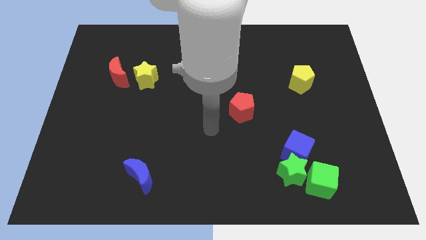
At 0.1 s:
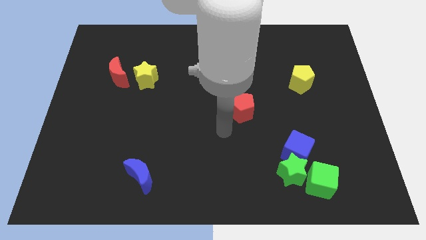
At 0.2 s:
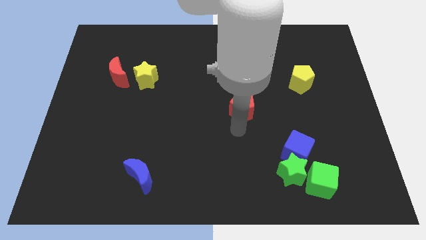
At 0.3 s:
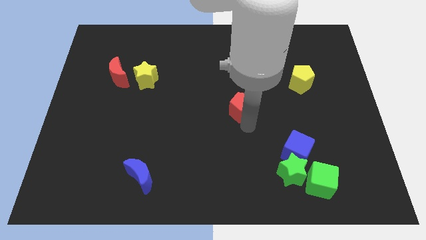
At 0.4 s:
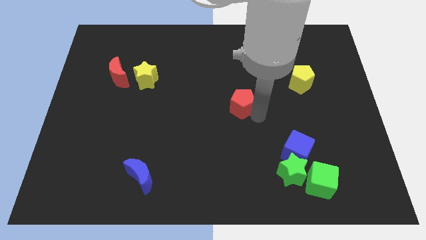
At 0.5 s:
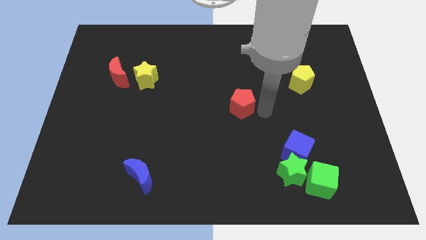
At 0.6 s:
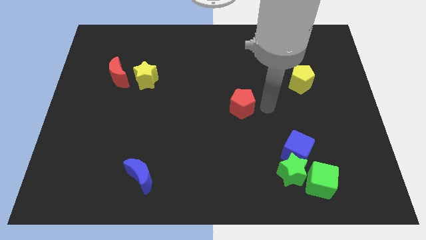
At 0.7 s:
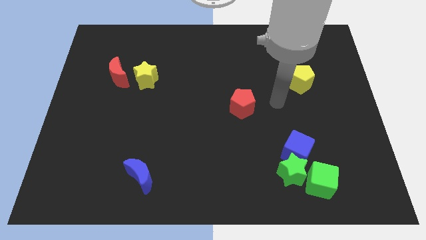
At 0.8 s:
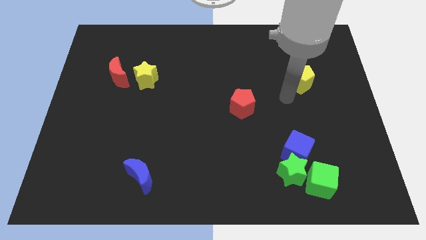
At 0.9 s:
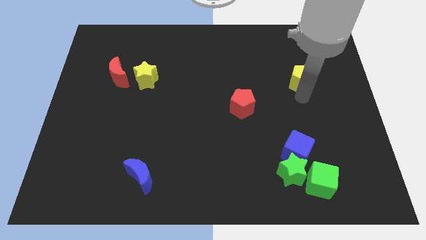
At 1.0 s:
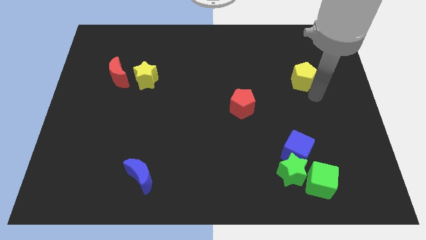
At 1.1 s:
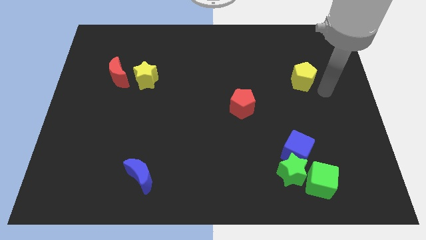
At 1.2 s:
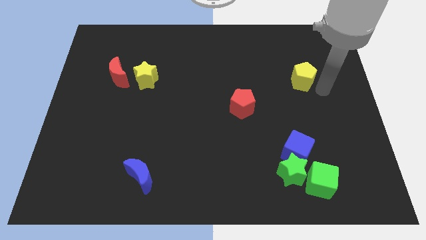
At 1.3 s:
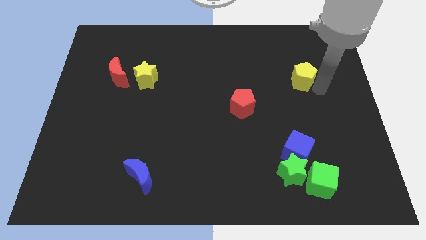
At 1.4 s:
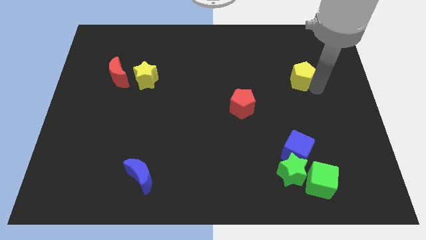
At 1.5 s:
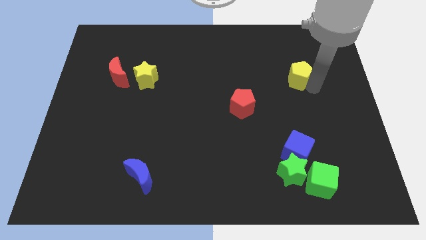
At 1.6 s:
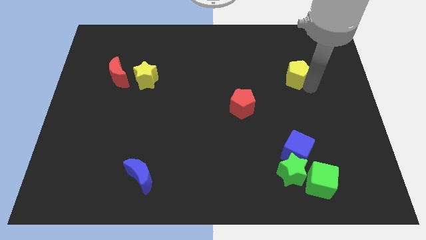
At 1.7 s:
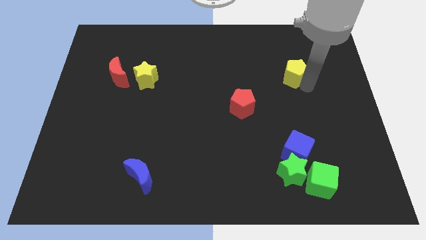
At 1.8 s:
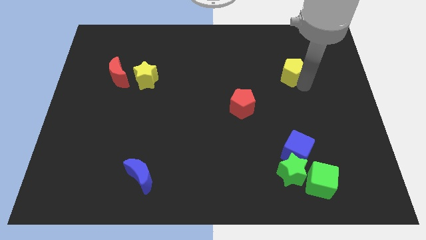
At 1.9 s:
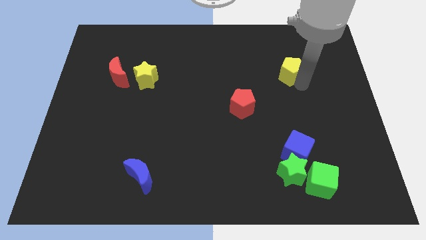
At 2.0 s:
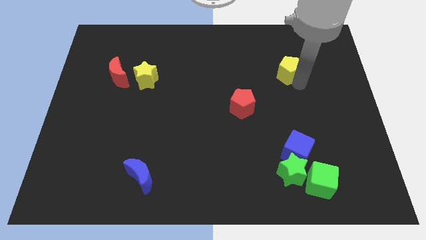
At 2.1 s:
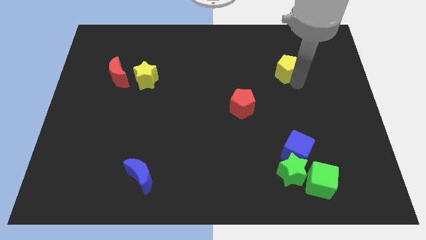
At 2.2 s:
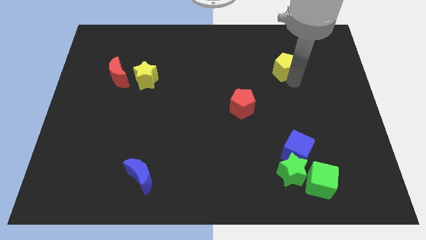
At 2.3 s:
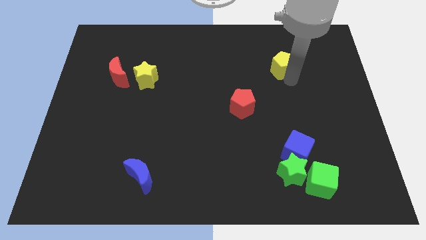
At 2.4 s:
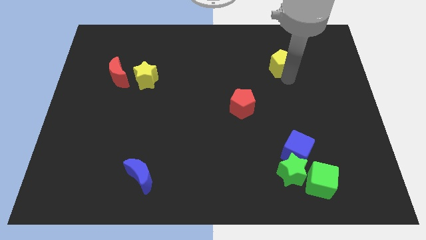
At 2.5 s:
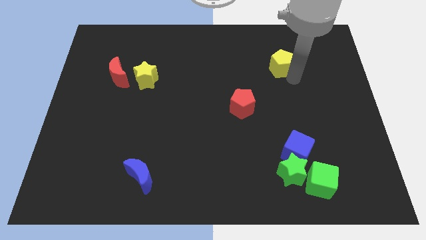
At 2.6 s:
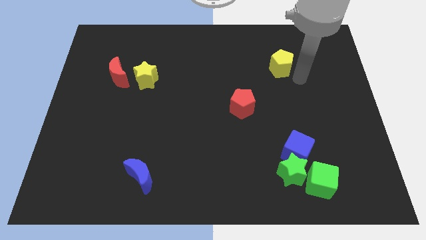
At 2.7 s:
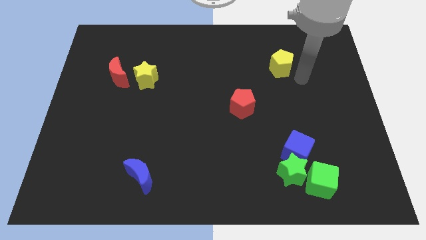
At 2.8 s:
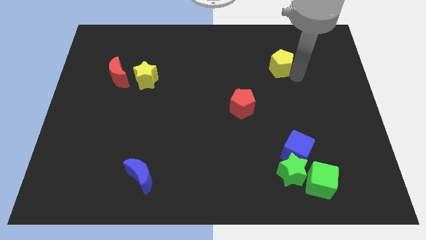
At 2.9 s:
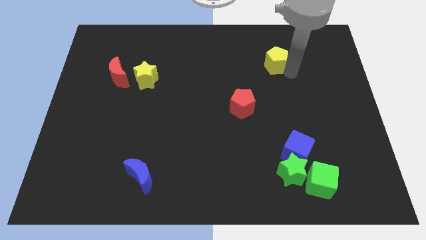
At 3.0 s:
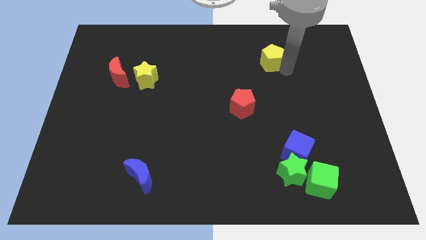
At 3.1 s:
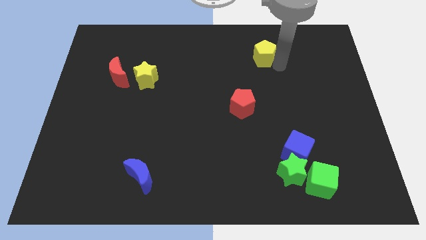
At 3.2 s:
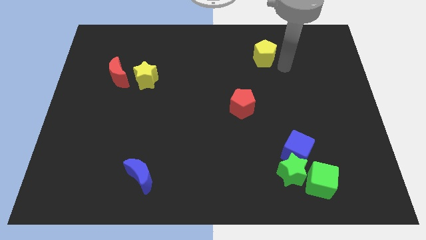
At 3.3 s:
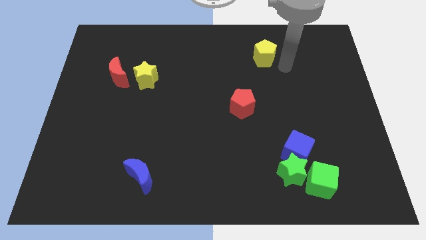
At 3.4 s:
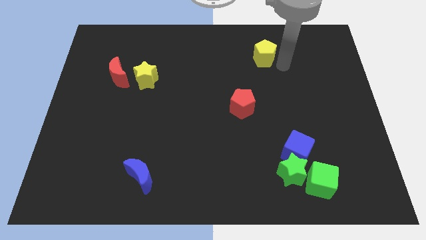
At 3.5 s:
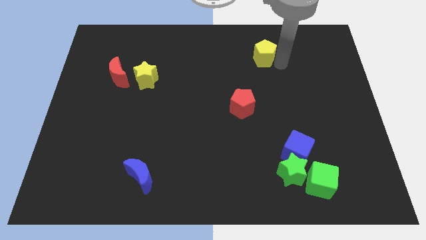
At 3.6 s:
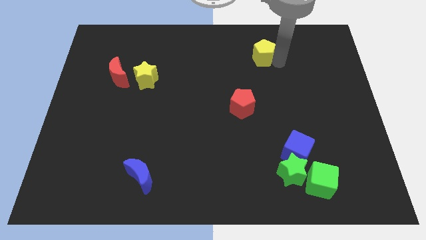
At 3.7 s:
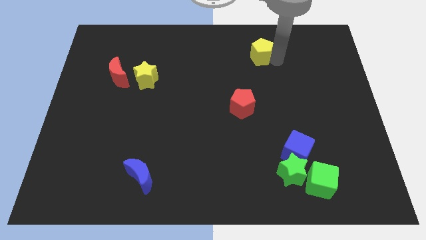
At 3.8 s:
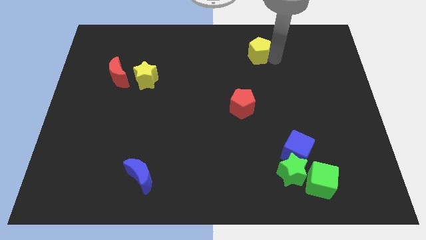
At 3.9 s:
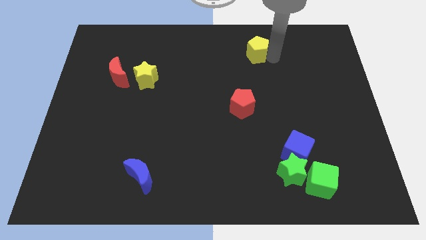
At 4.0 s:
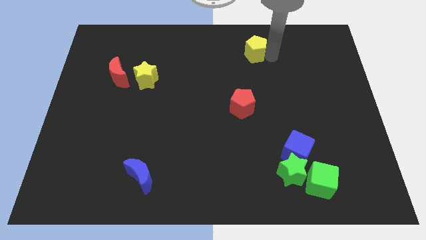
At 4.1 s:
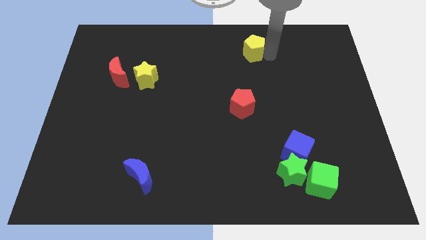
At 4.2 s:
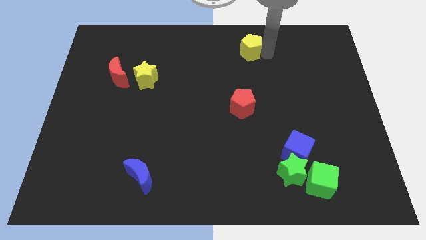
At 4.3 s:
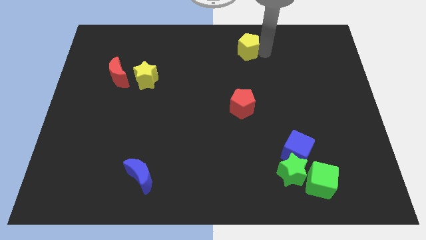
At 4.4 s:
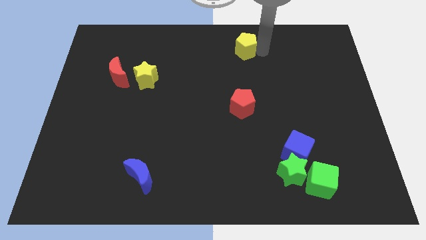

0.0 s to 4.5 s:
put the yellow pentagon to the towards your base

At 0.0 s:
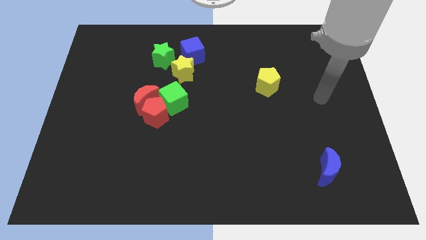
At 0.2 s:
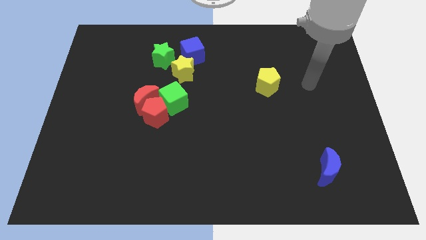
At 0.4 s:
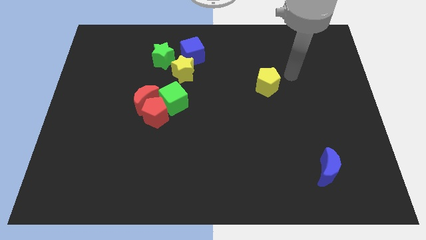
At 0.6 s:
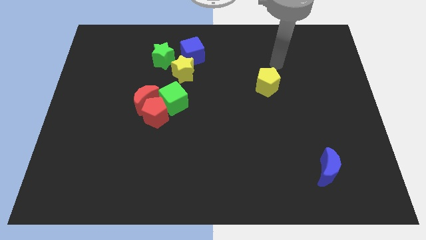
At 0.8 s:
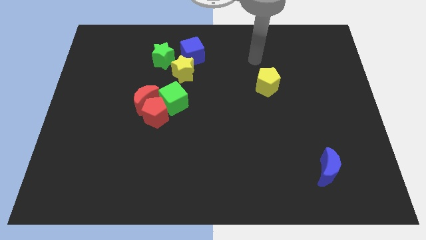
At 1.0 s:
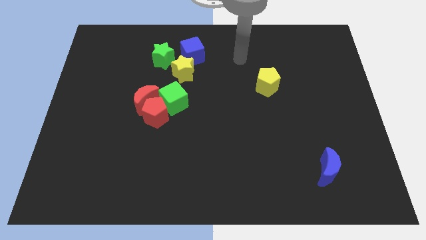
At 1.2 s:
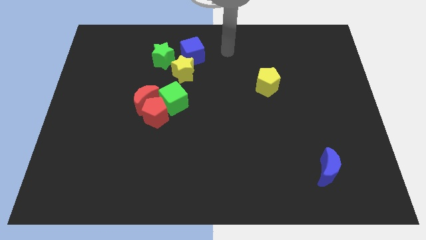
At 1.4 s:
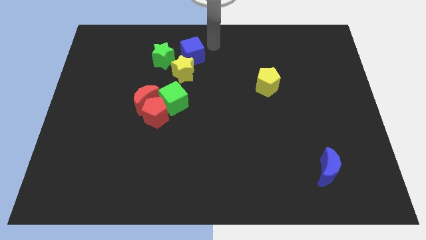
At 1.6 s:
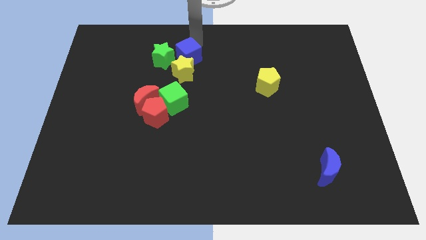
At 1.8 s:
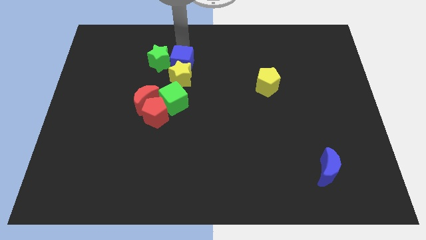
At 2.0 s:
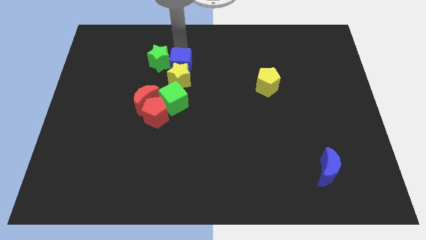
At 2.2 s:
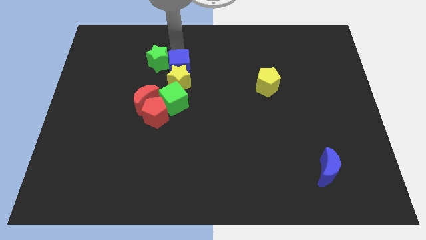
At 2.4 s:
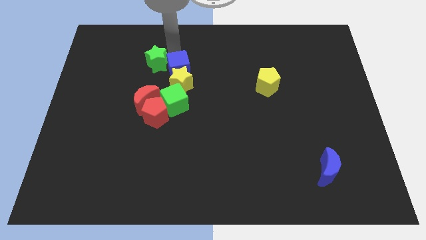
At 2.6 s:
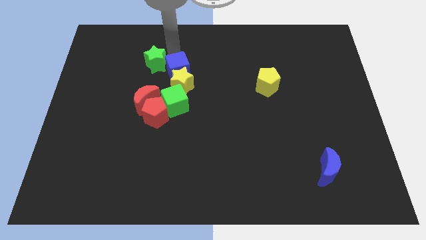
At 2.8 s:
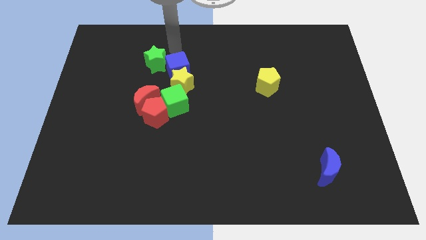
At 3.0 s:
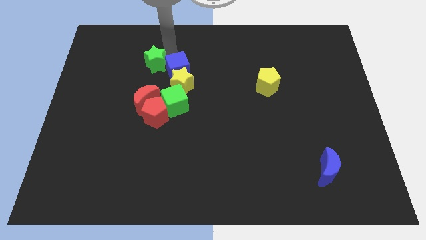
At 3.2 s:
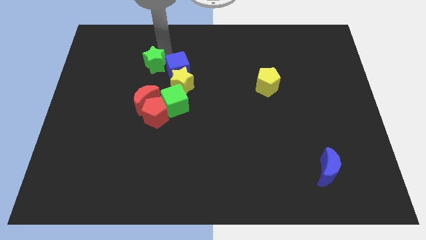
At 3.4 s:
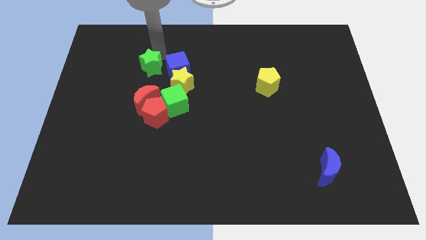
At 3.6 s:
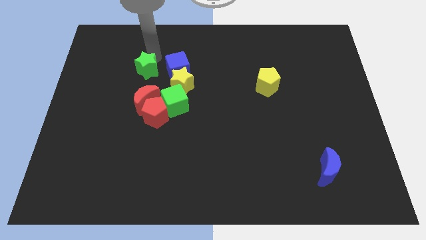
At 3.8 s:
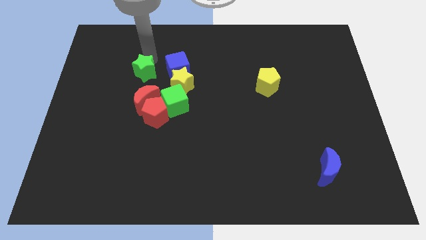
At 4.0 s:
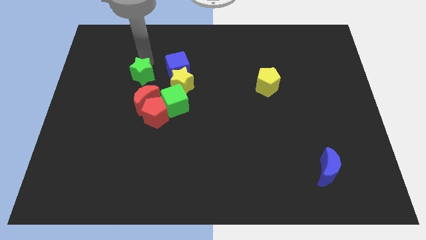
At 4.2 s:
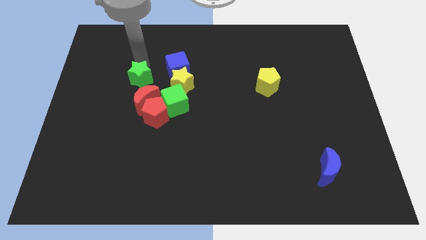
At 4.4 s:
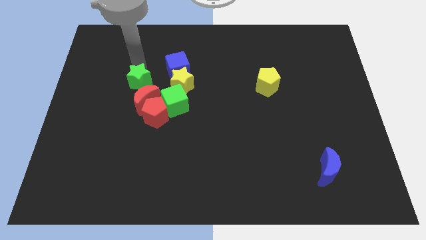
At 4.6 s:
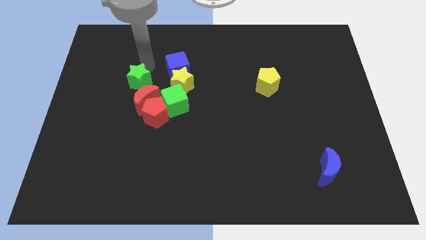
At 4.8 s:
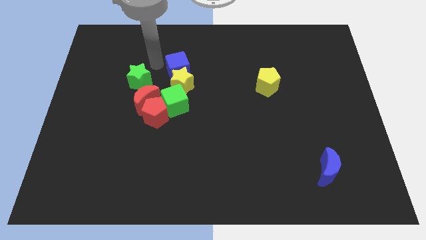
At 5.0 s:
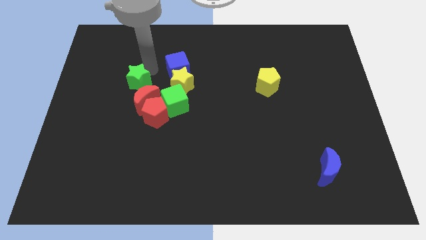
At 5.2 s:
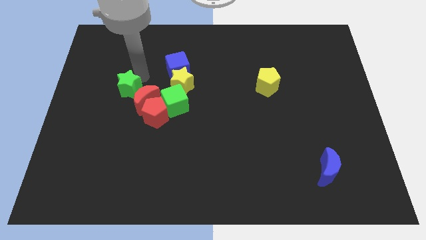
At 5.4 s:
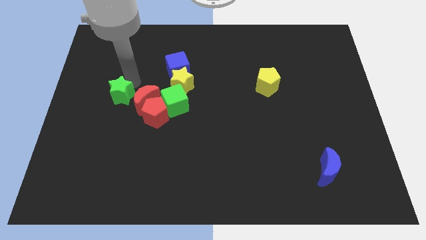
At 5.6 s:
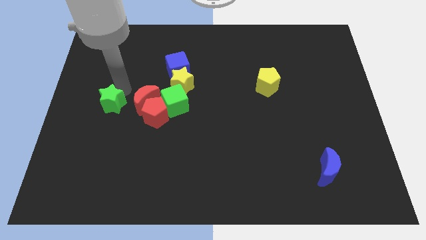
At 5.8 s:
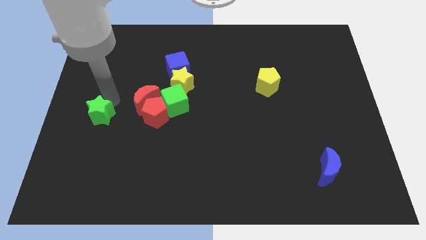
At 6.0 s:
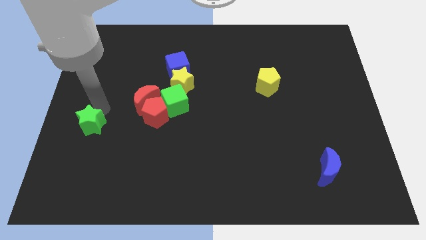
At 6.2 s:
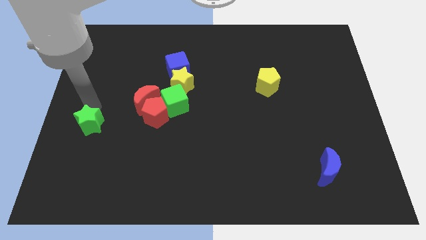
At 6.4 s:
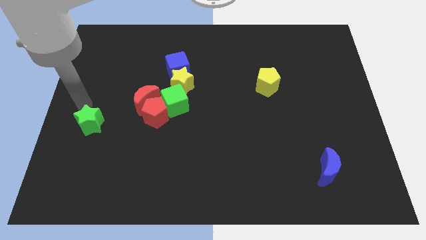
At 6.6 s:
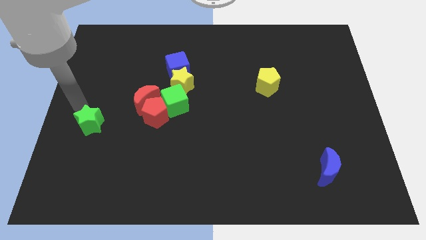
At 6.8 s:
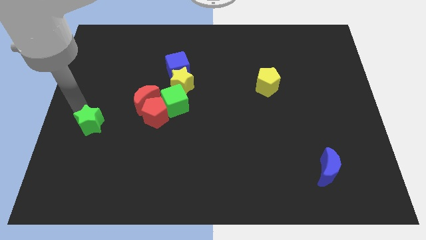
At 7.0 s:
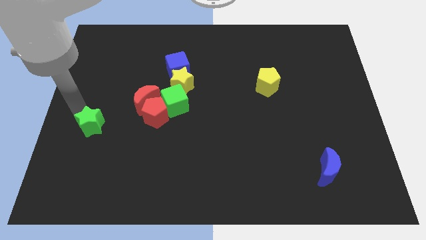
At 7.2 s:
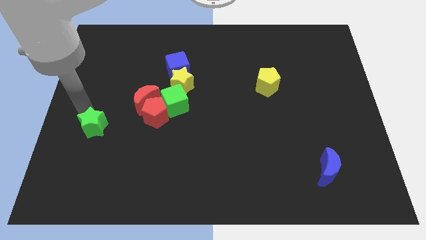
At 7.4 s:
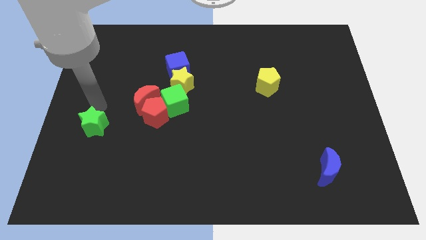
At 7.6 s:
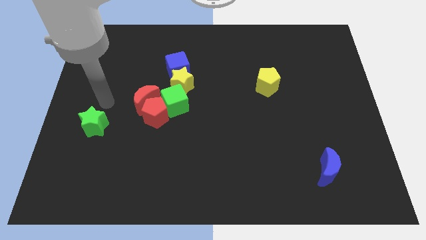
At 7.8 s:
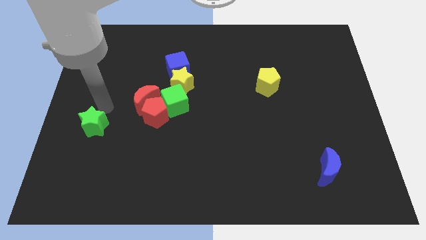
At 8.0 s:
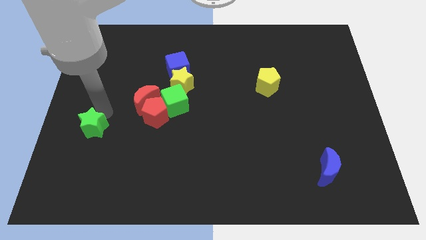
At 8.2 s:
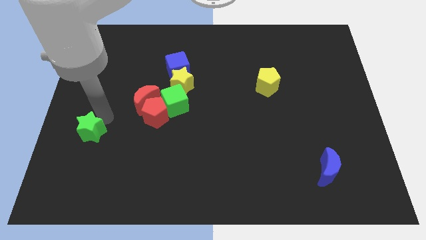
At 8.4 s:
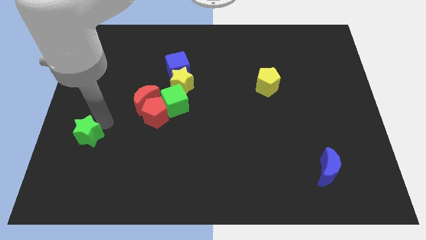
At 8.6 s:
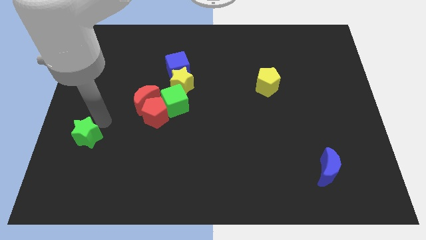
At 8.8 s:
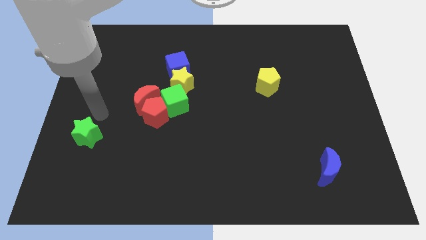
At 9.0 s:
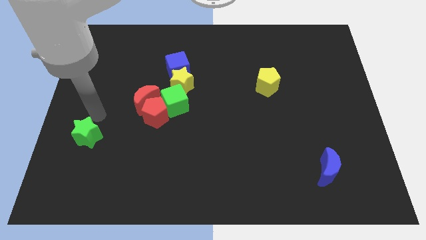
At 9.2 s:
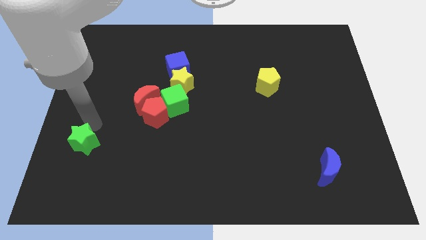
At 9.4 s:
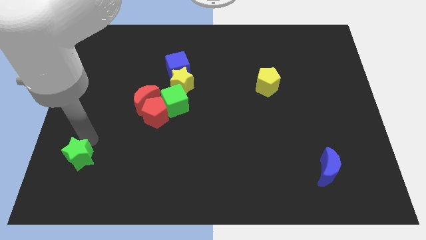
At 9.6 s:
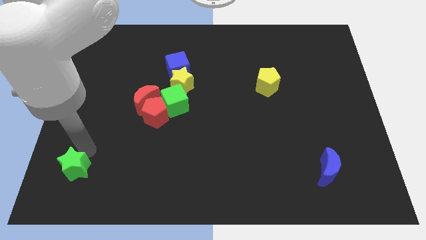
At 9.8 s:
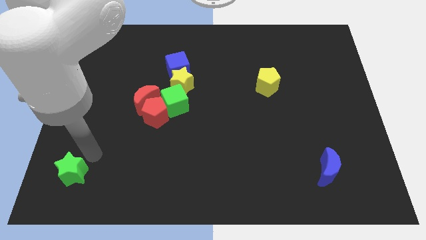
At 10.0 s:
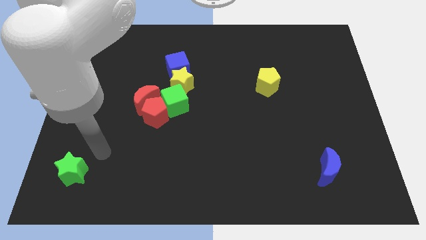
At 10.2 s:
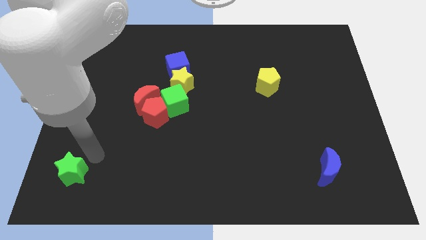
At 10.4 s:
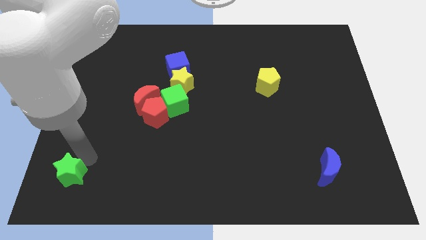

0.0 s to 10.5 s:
put the green star to the bottom left
